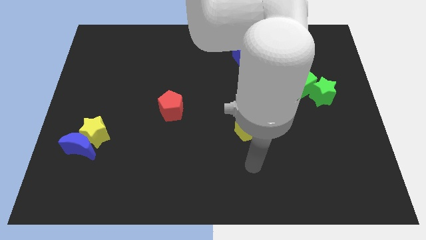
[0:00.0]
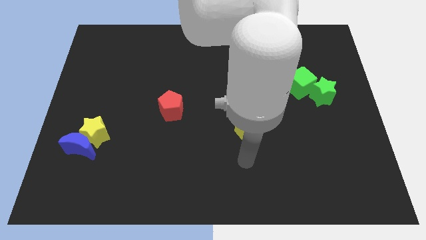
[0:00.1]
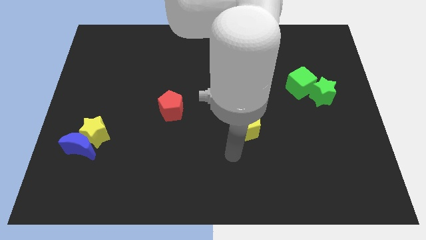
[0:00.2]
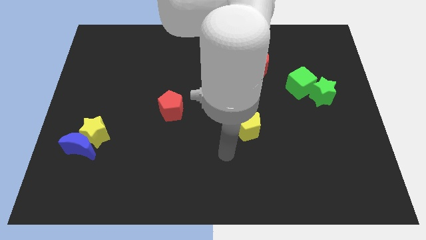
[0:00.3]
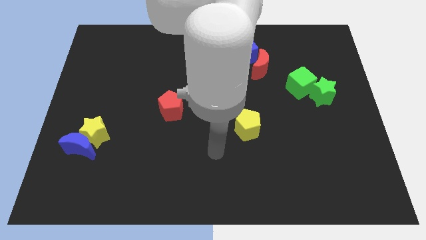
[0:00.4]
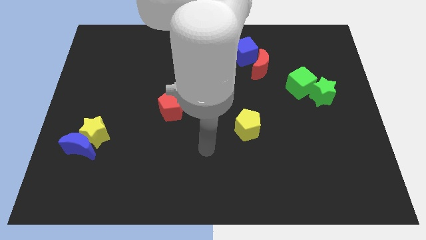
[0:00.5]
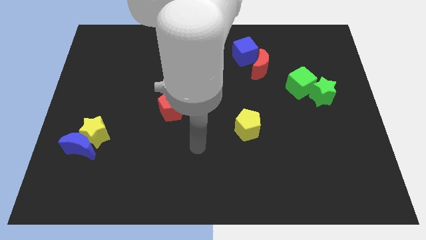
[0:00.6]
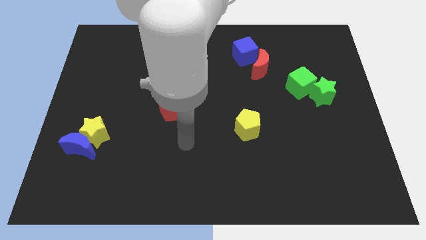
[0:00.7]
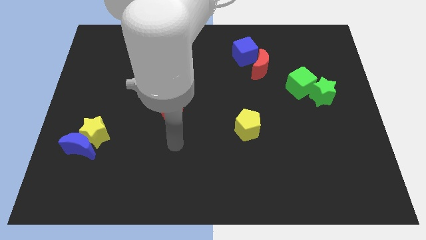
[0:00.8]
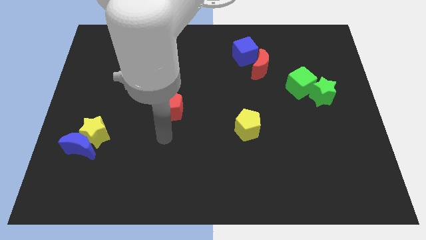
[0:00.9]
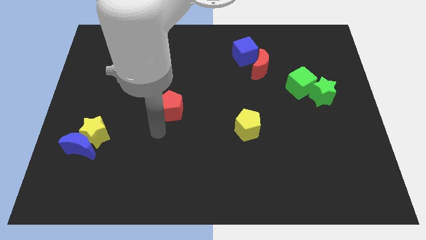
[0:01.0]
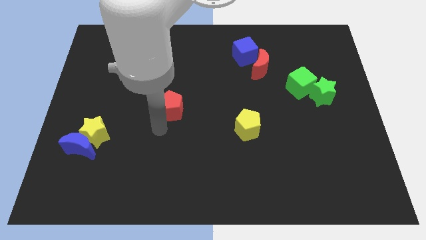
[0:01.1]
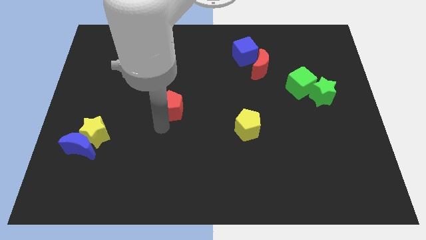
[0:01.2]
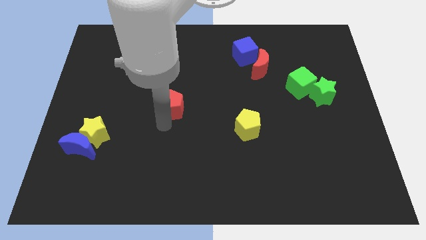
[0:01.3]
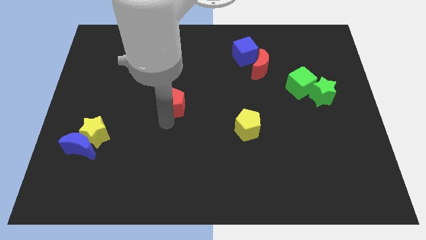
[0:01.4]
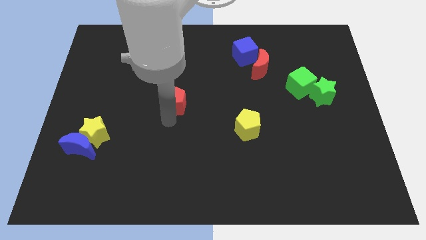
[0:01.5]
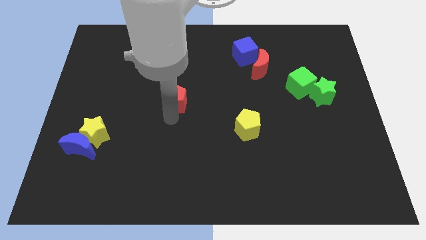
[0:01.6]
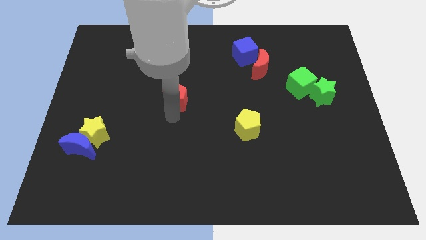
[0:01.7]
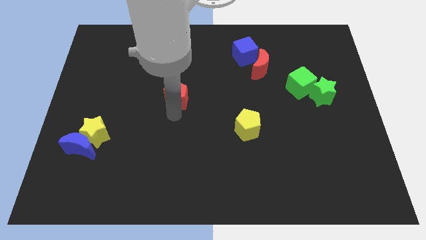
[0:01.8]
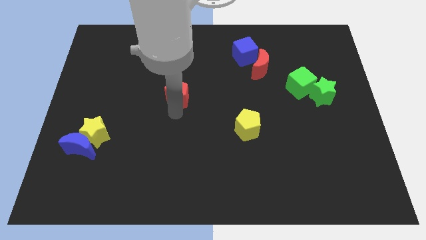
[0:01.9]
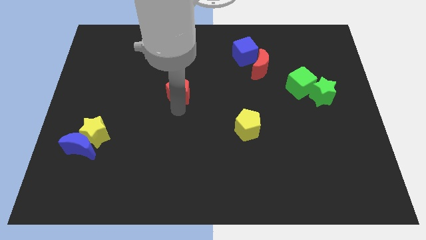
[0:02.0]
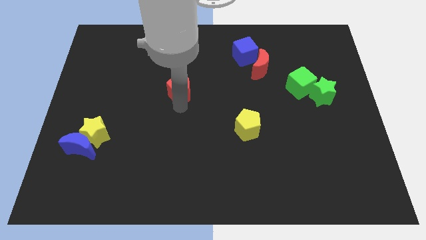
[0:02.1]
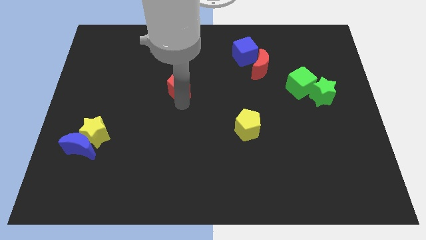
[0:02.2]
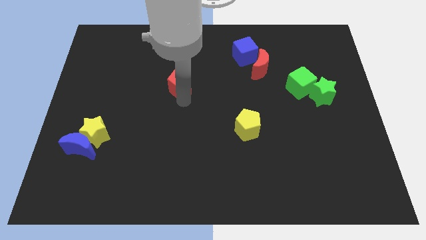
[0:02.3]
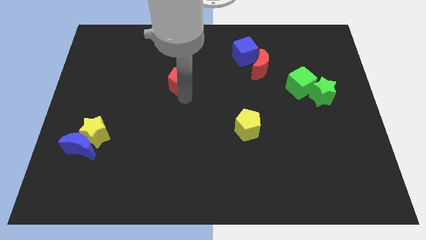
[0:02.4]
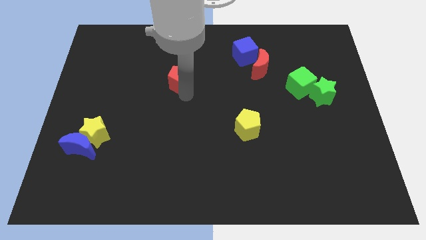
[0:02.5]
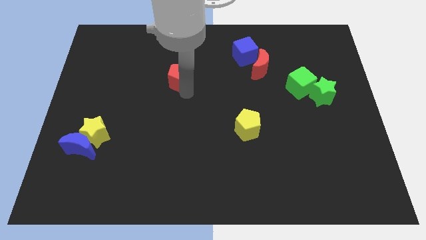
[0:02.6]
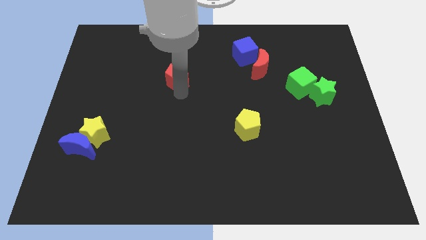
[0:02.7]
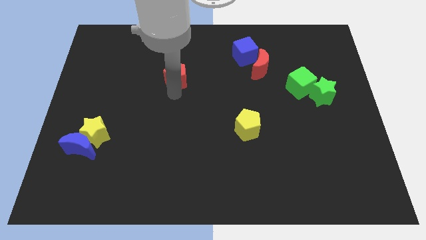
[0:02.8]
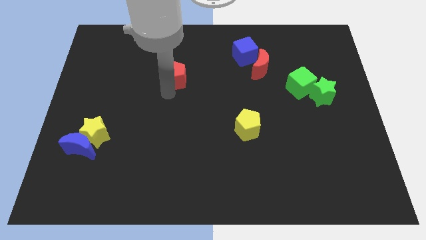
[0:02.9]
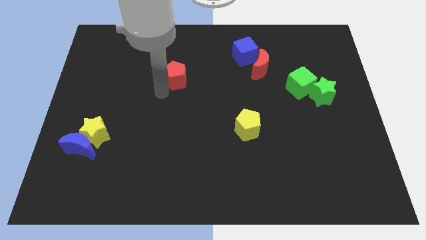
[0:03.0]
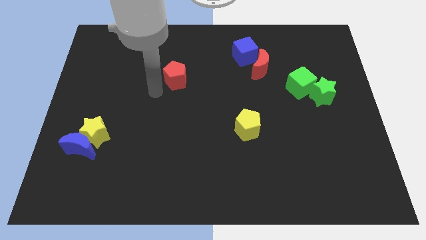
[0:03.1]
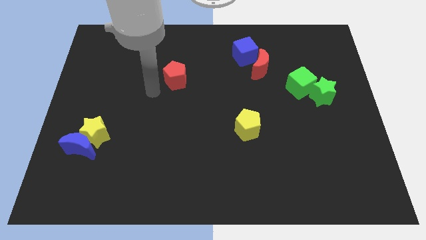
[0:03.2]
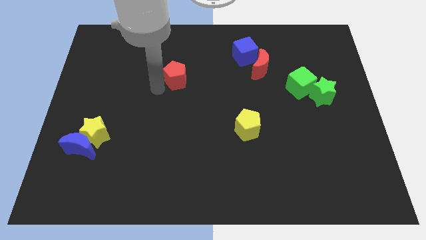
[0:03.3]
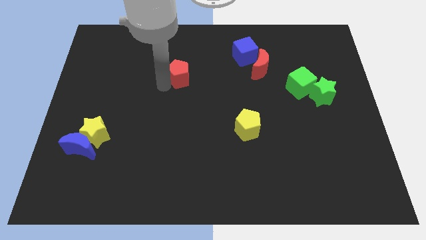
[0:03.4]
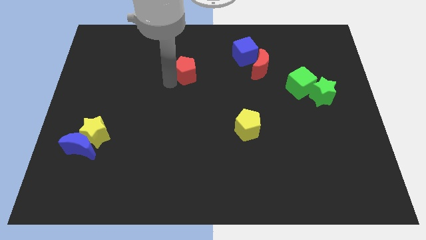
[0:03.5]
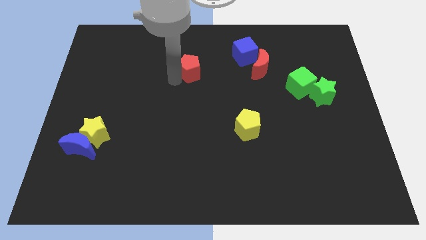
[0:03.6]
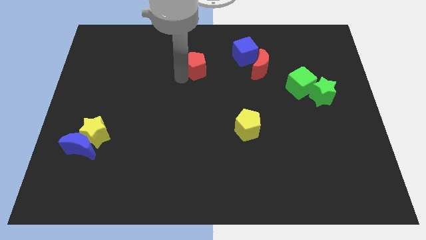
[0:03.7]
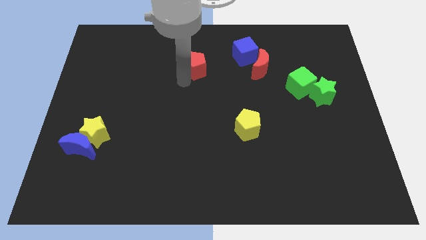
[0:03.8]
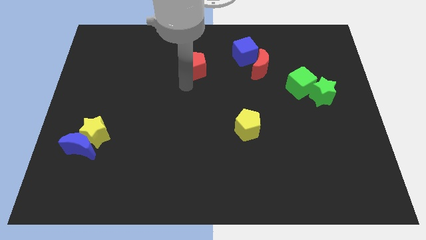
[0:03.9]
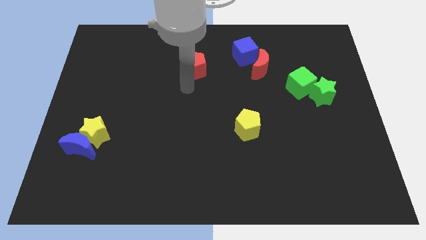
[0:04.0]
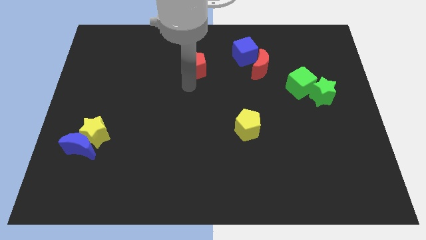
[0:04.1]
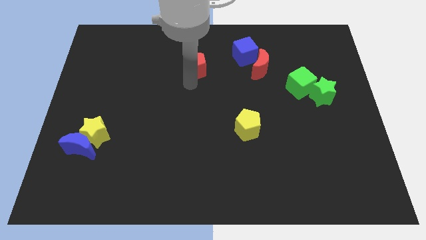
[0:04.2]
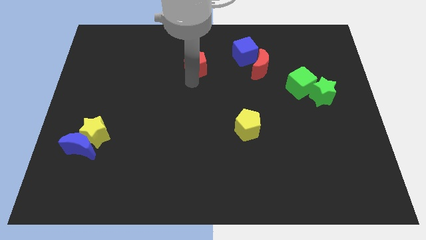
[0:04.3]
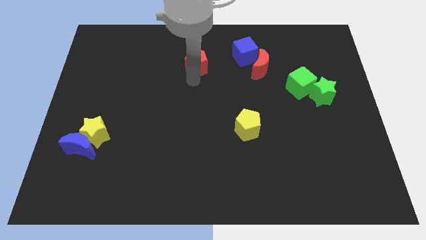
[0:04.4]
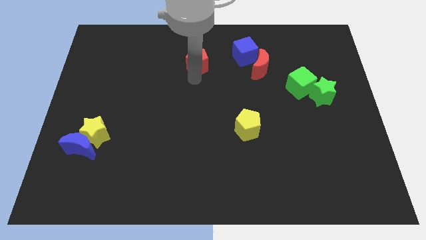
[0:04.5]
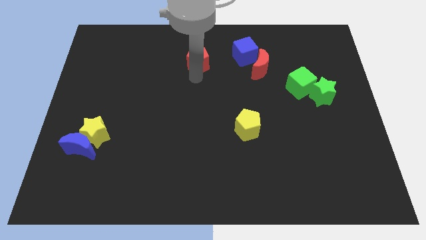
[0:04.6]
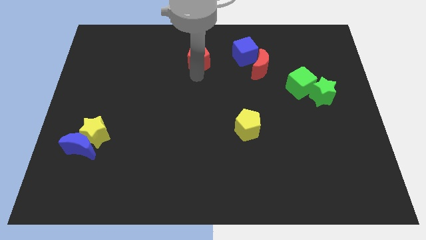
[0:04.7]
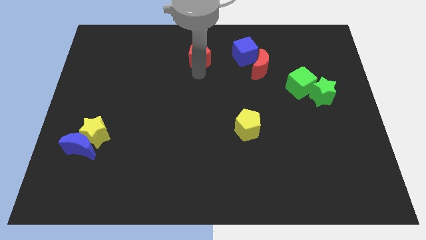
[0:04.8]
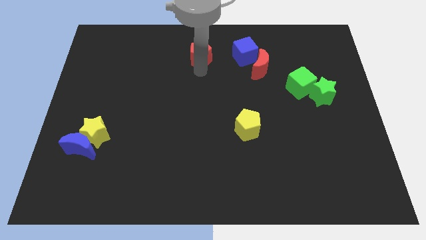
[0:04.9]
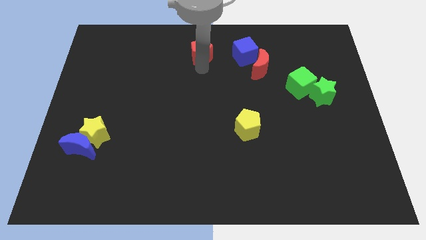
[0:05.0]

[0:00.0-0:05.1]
push the red pentagon to the top side

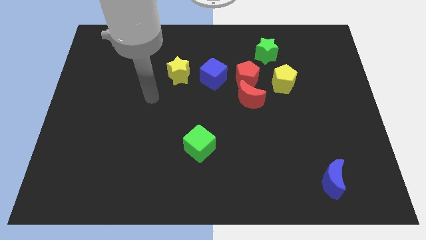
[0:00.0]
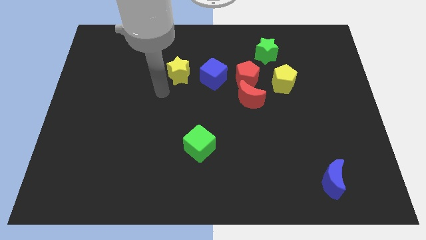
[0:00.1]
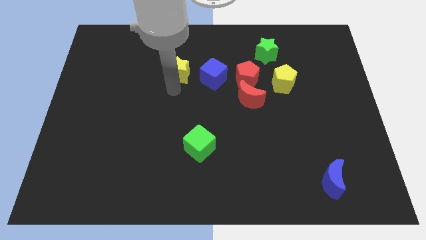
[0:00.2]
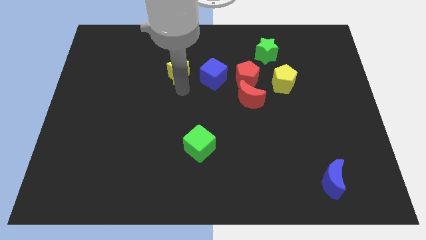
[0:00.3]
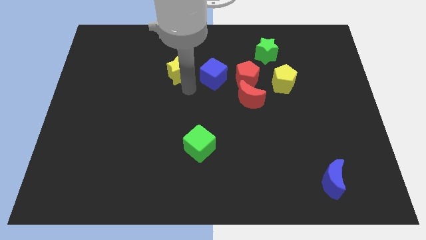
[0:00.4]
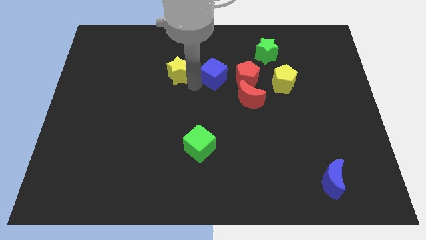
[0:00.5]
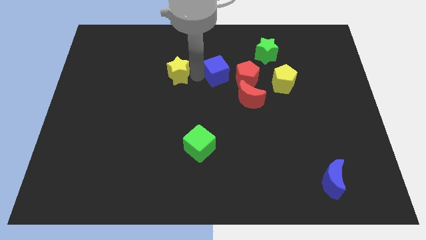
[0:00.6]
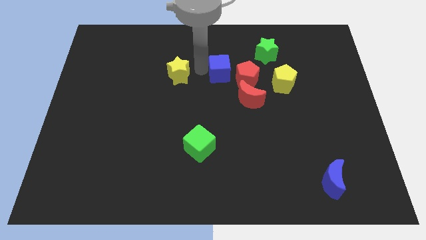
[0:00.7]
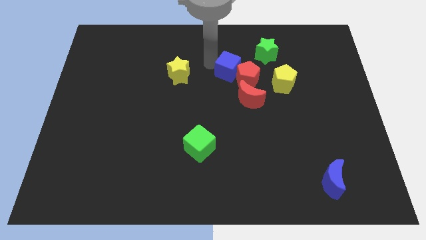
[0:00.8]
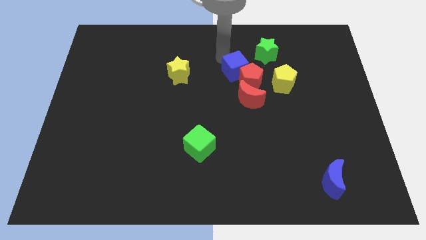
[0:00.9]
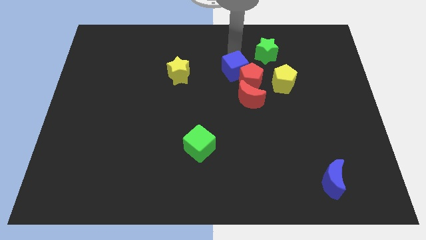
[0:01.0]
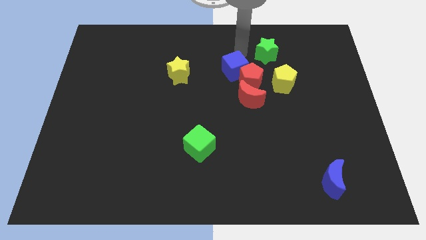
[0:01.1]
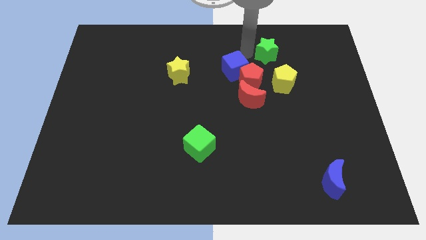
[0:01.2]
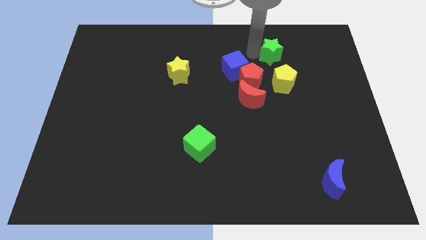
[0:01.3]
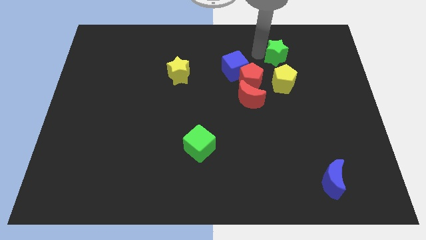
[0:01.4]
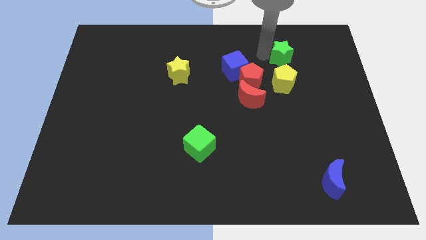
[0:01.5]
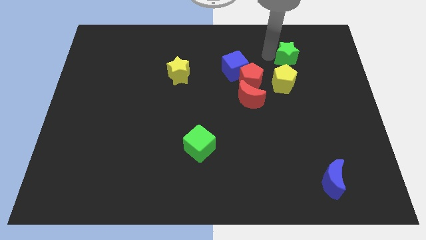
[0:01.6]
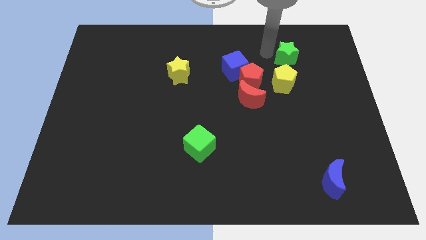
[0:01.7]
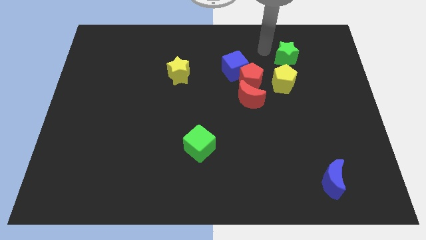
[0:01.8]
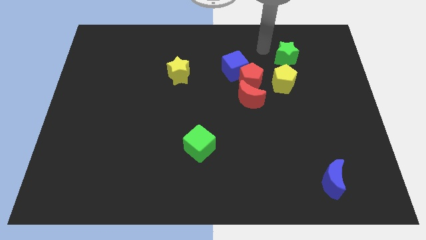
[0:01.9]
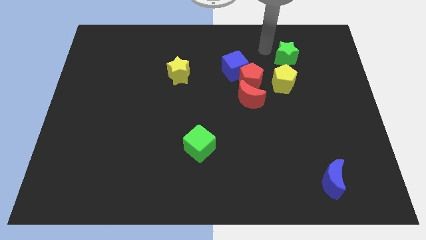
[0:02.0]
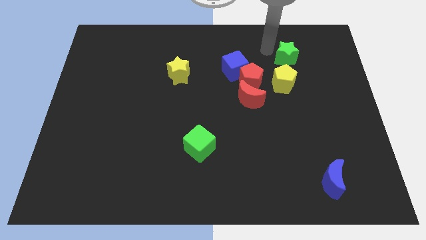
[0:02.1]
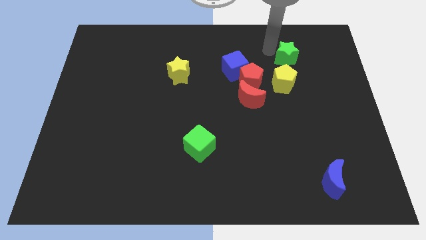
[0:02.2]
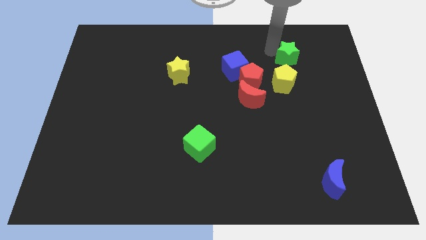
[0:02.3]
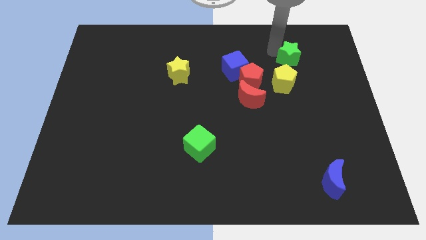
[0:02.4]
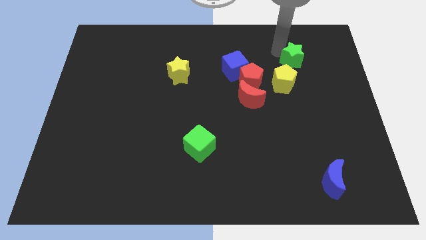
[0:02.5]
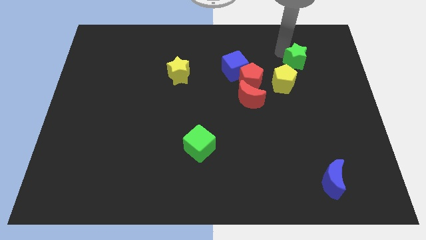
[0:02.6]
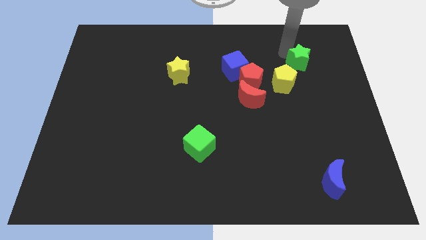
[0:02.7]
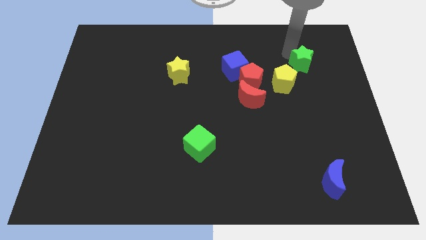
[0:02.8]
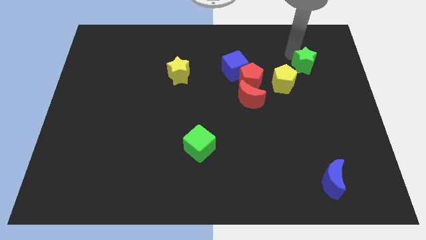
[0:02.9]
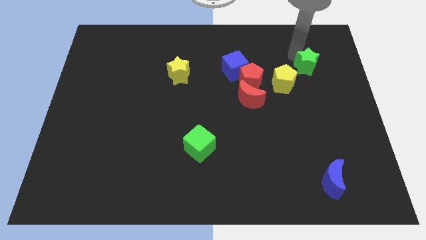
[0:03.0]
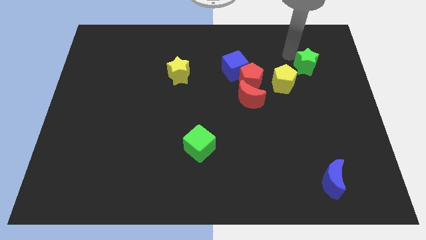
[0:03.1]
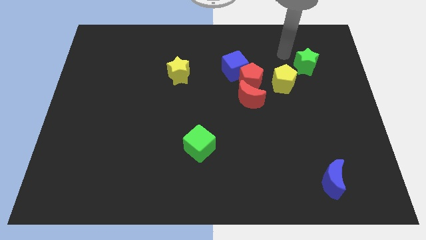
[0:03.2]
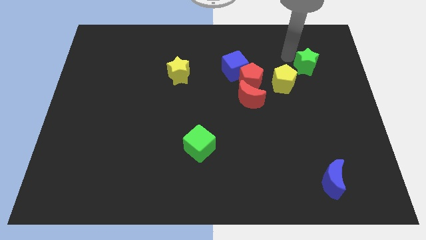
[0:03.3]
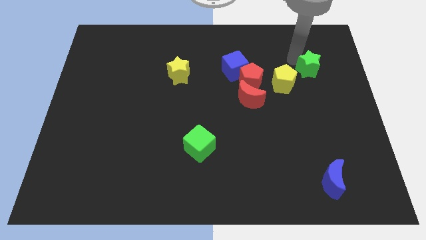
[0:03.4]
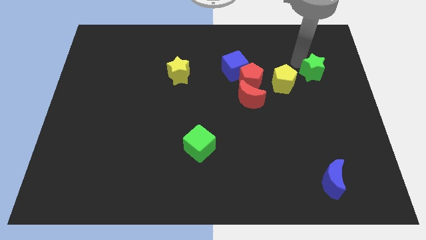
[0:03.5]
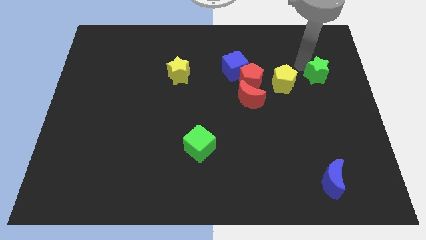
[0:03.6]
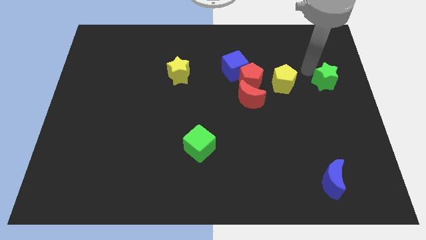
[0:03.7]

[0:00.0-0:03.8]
slide the green star to the right side

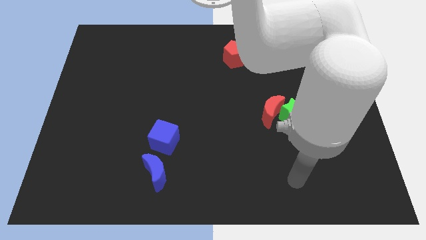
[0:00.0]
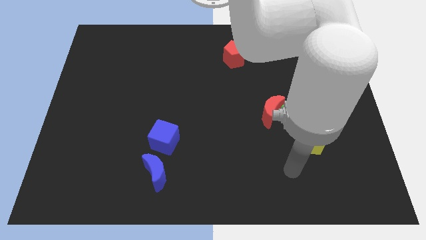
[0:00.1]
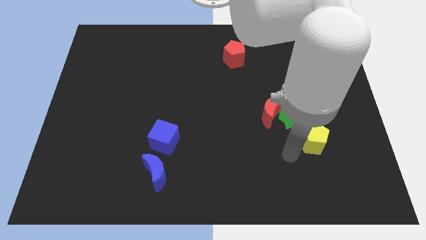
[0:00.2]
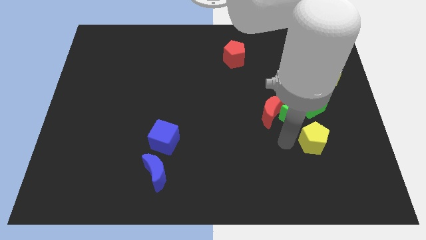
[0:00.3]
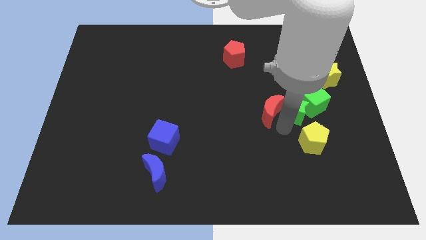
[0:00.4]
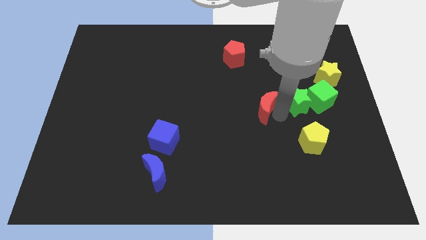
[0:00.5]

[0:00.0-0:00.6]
put the green cube to the right side
